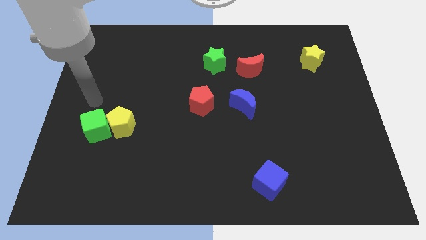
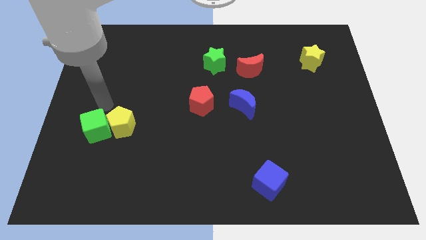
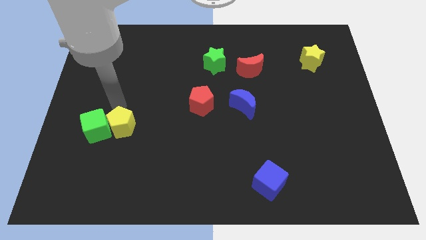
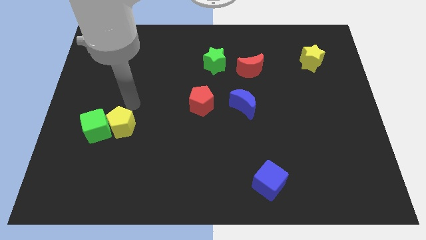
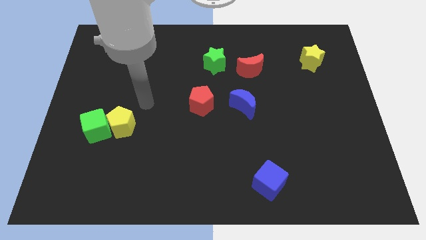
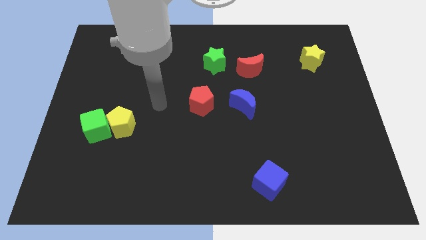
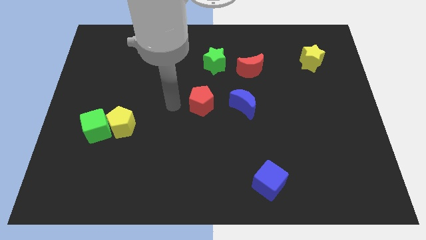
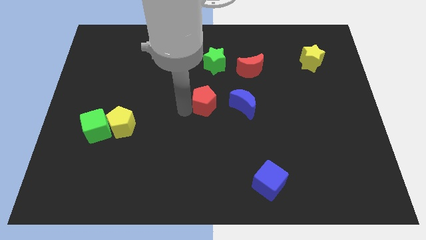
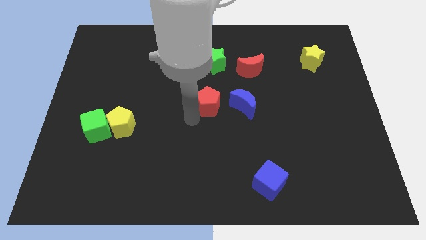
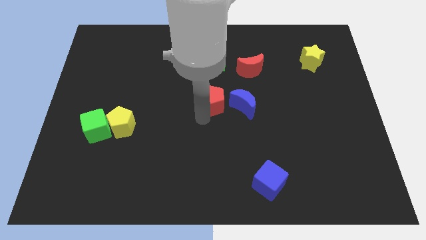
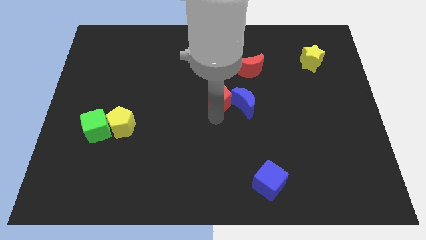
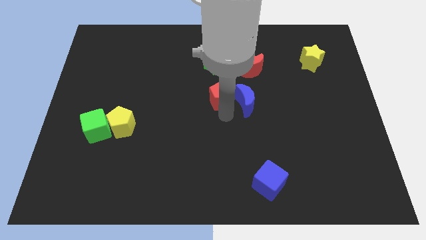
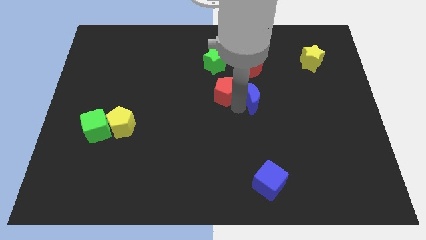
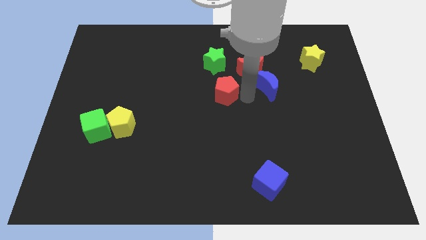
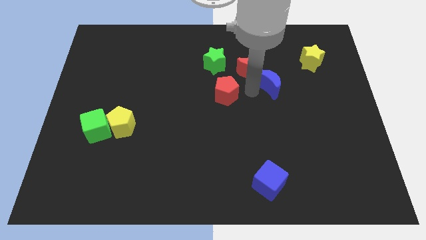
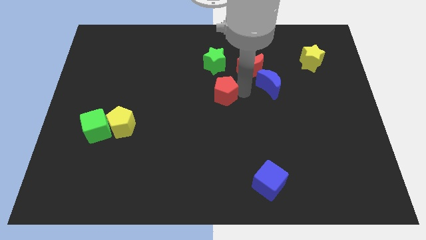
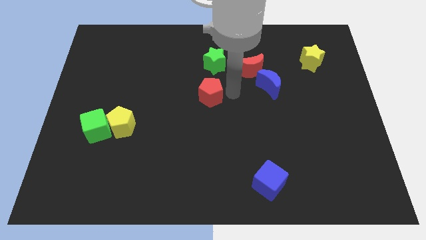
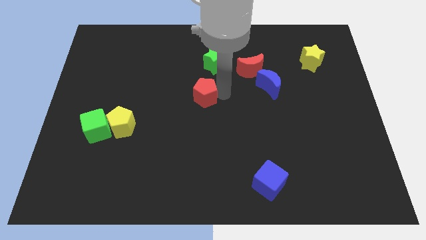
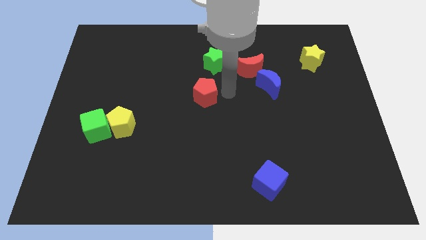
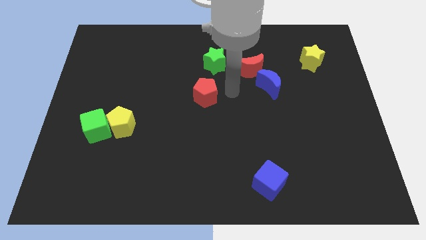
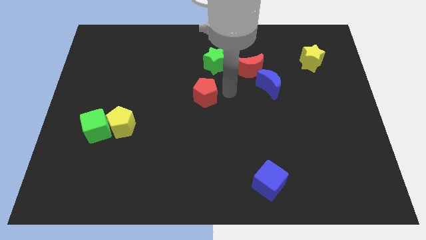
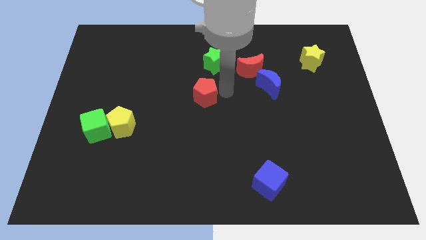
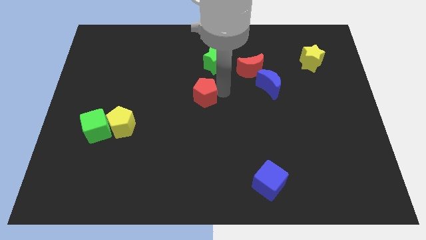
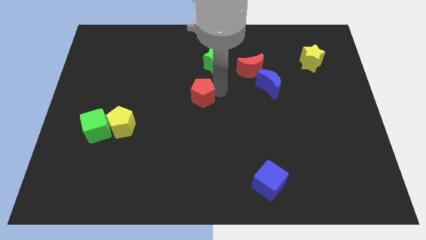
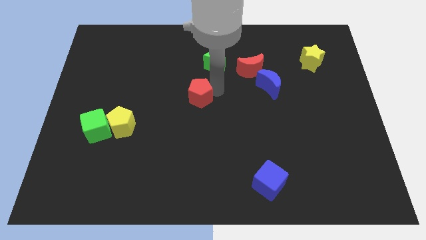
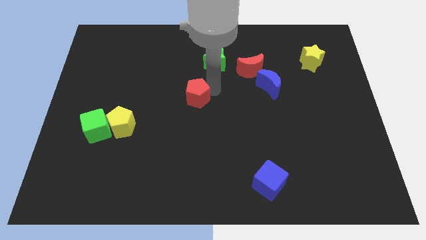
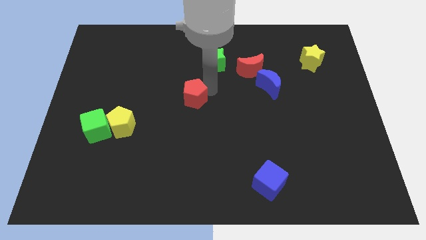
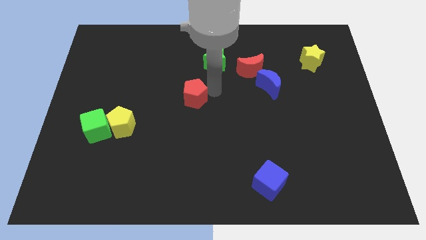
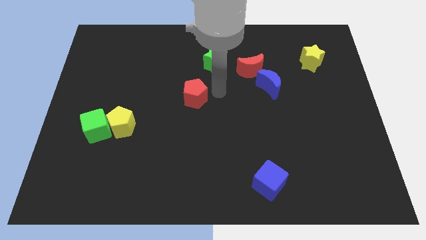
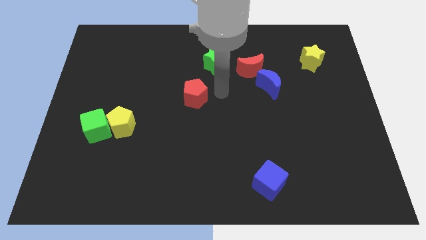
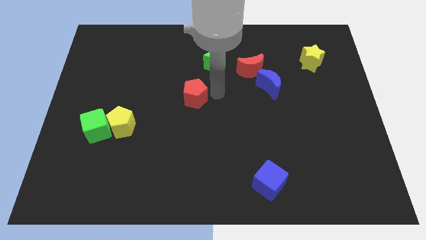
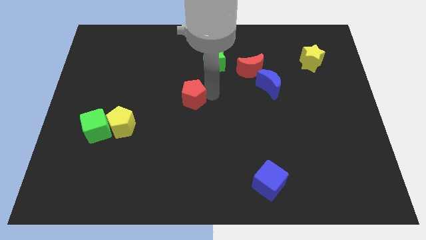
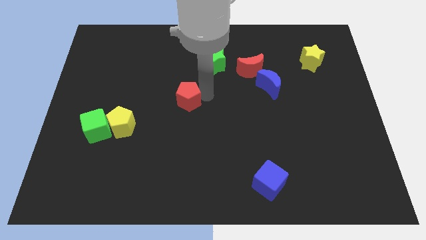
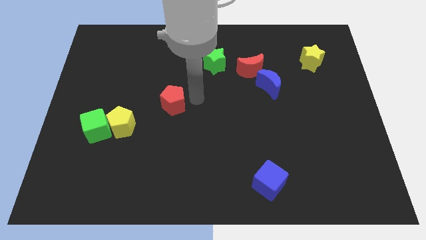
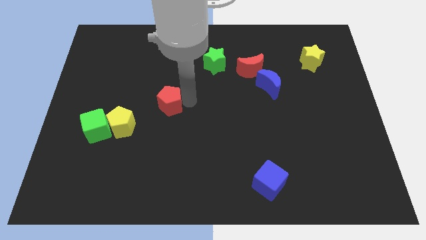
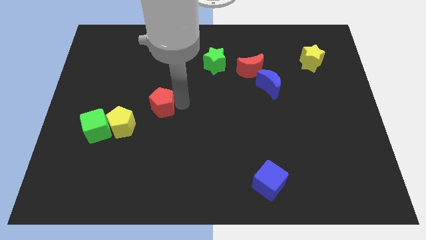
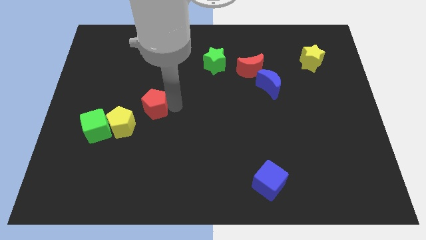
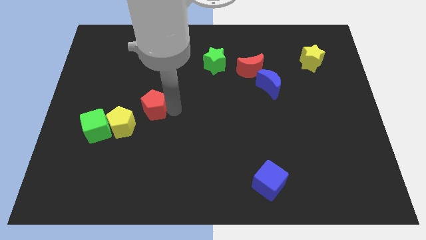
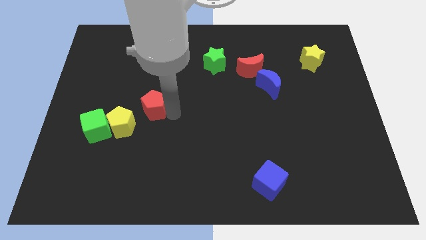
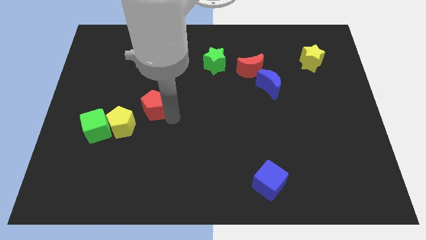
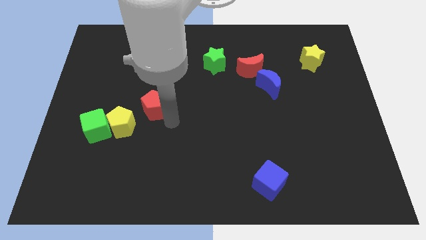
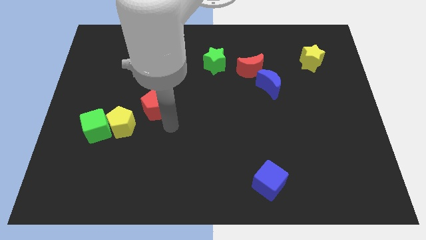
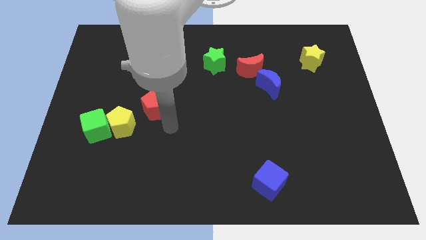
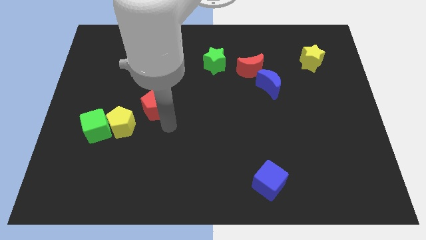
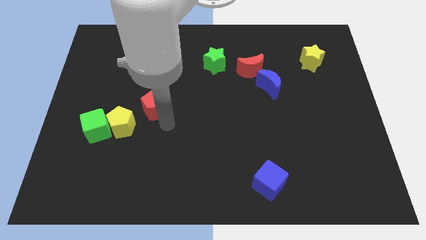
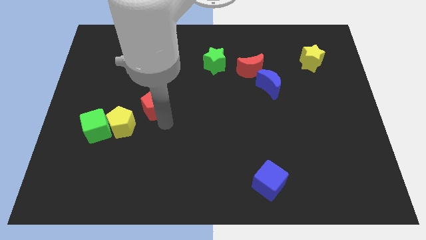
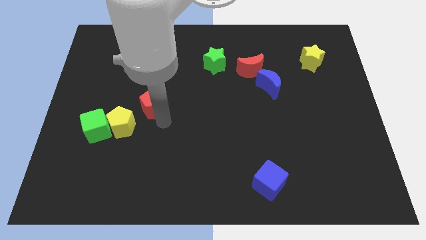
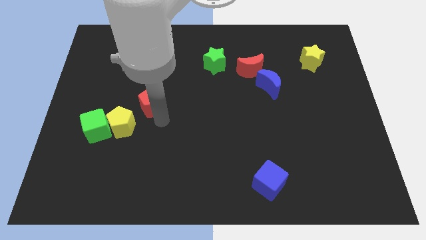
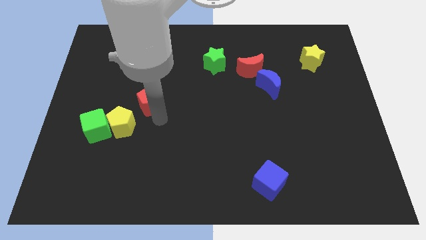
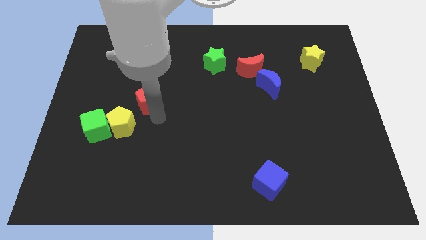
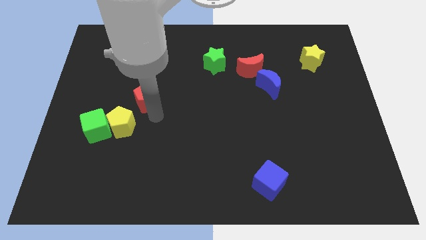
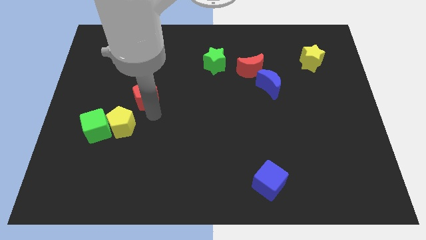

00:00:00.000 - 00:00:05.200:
move the red pentagon to the top of the yellow pentagon

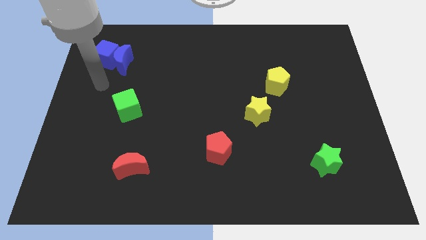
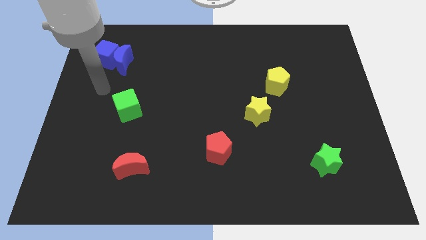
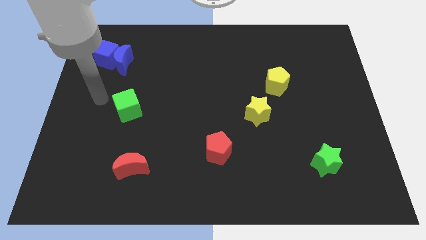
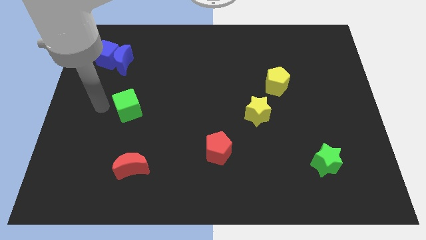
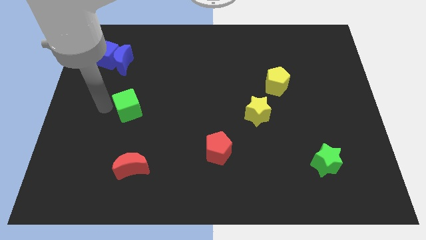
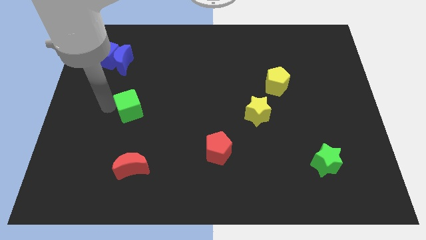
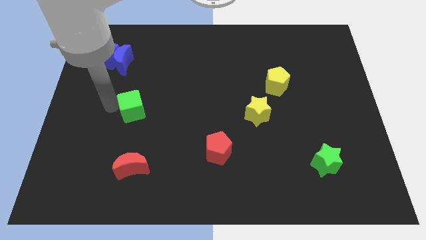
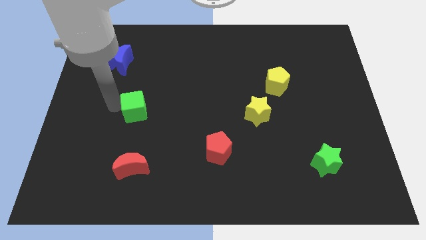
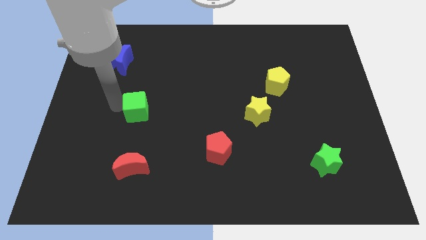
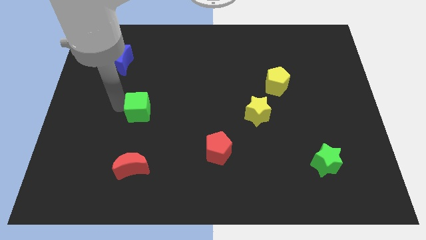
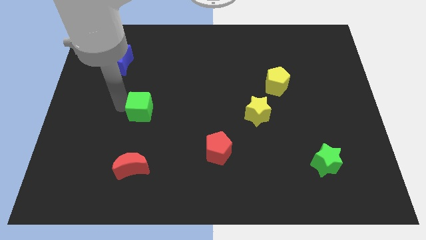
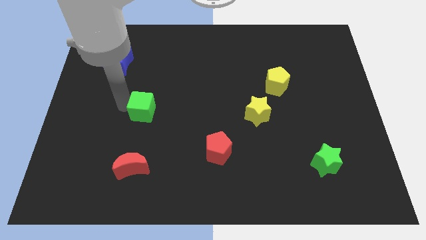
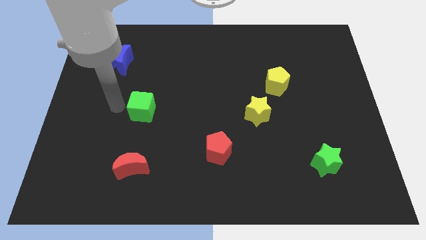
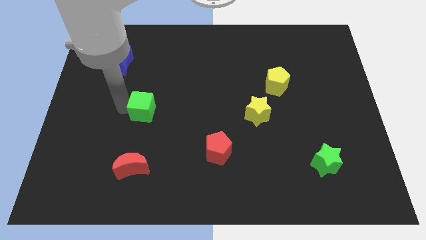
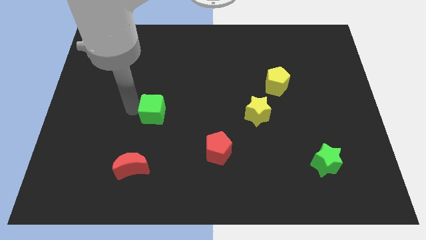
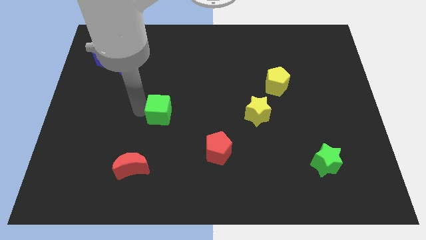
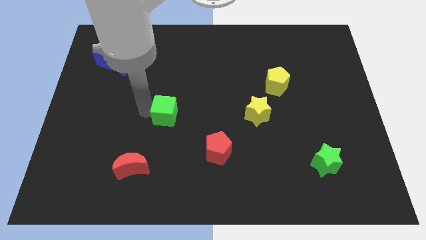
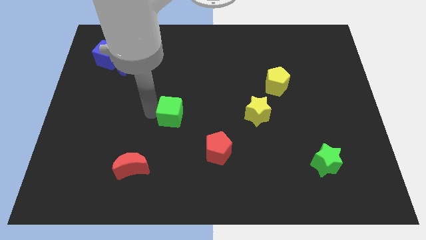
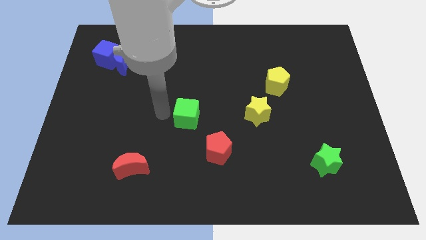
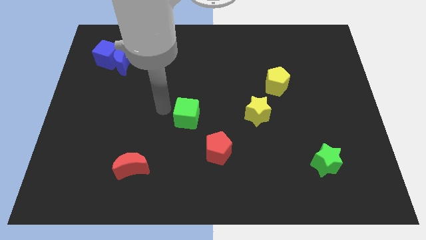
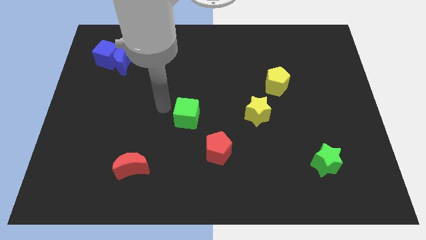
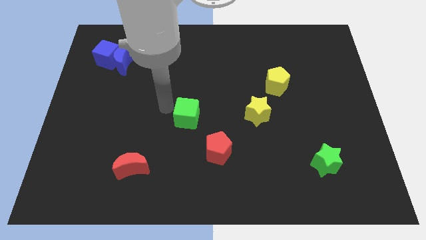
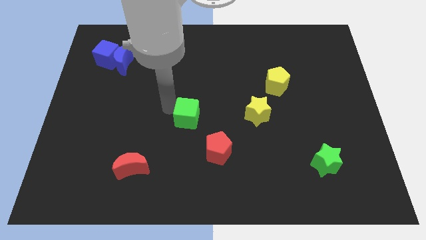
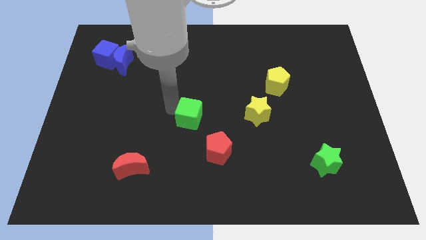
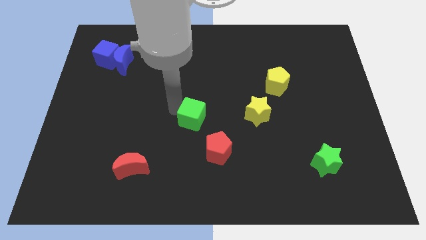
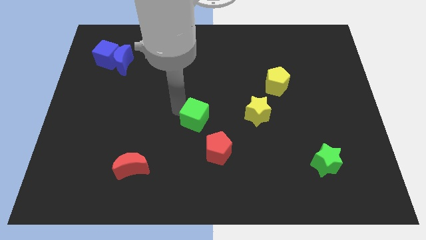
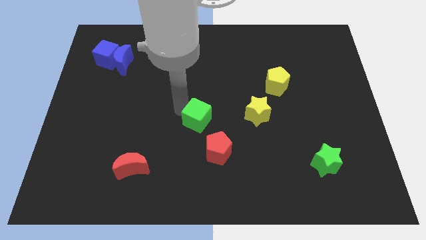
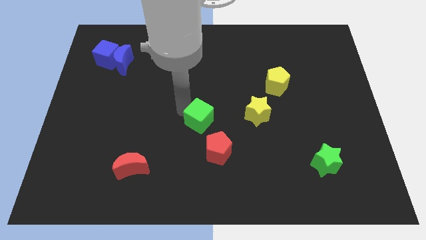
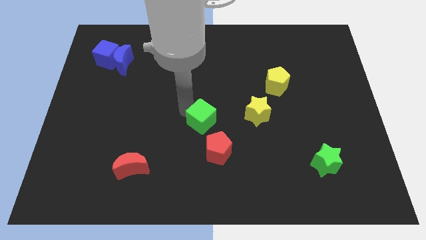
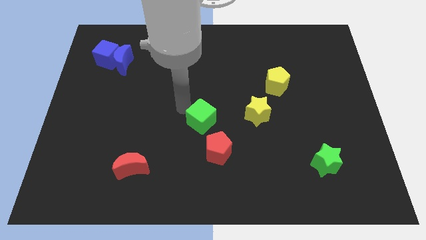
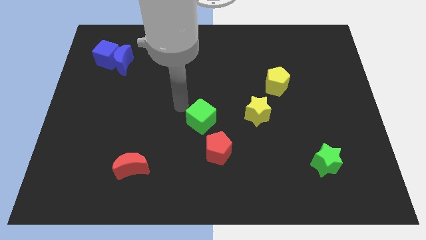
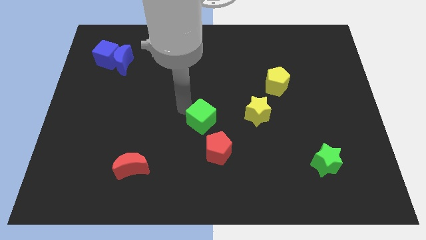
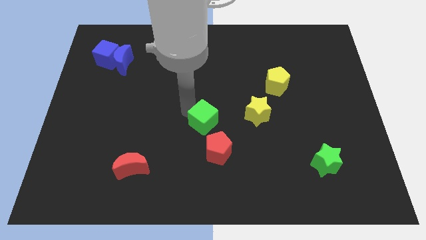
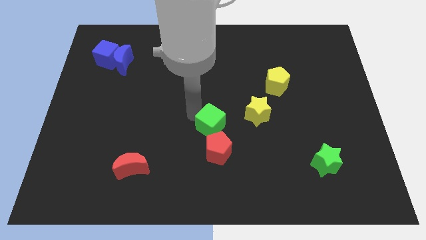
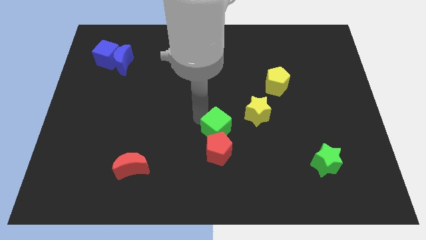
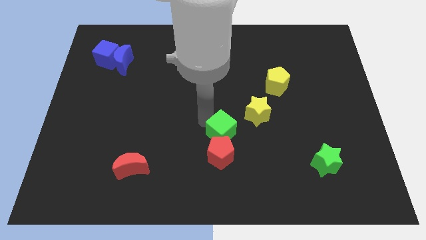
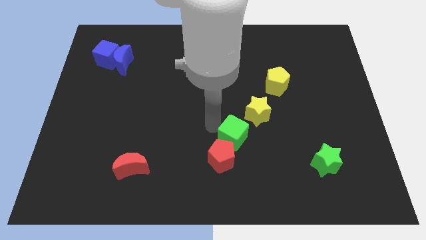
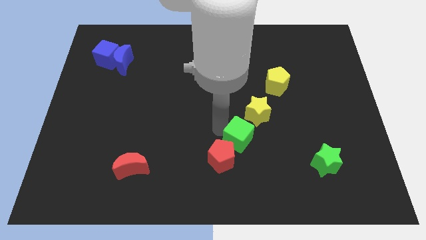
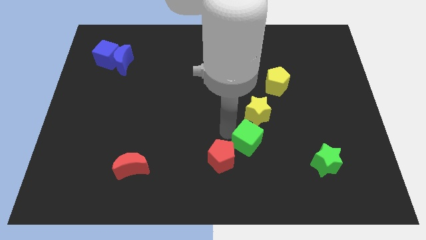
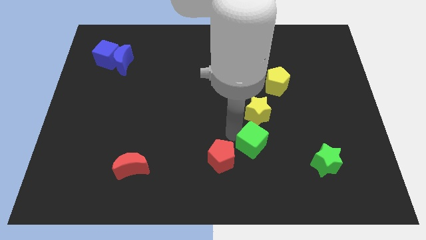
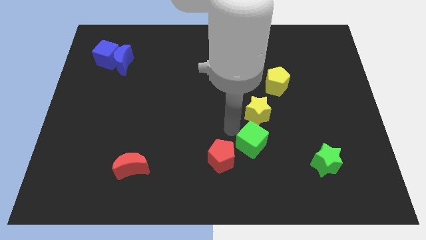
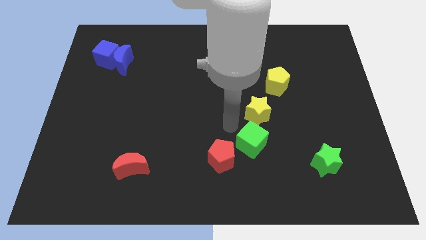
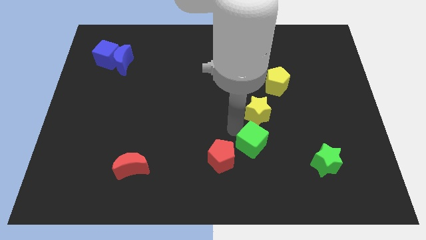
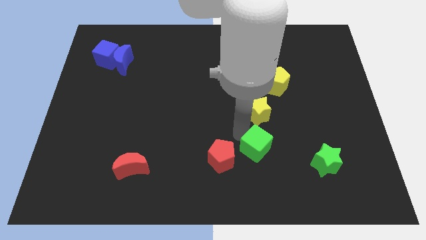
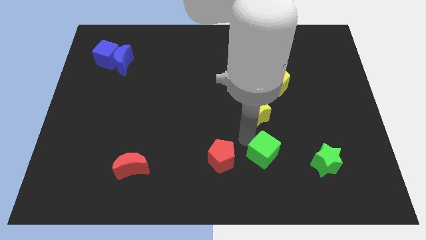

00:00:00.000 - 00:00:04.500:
push the green cube to the left side of the green star
